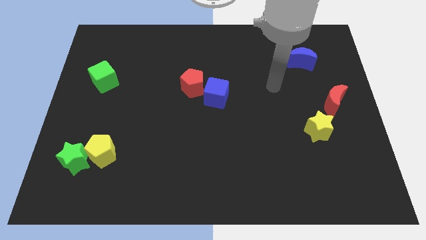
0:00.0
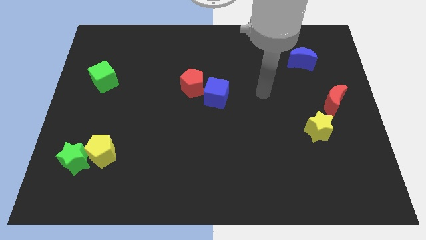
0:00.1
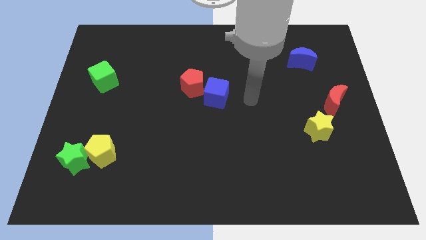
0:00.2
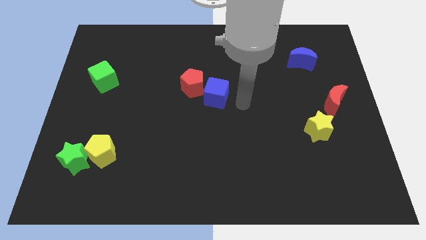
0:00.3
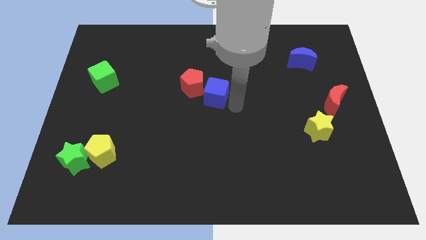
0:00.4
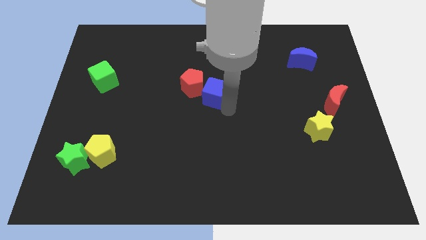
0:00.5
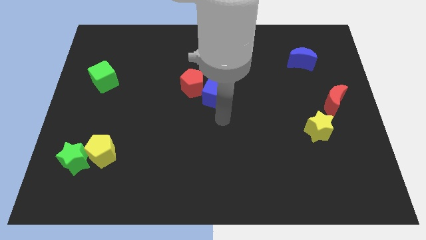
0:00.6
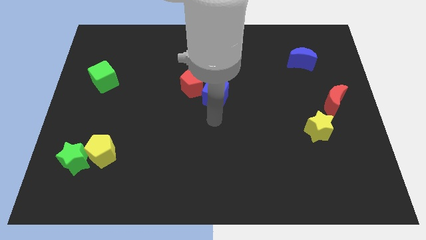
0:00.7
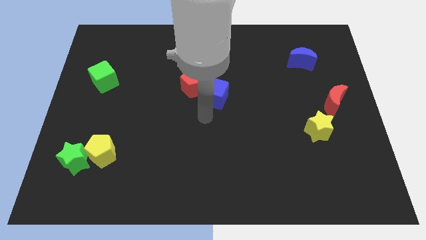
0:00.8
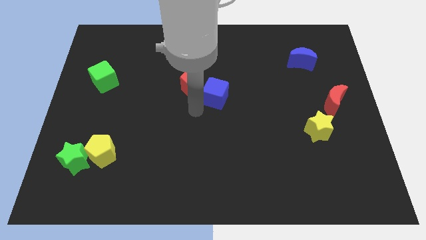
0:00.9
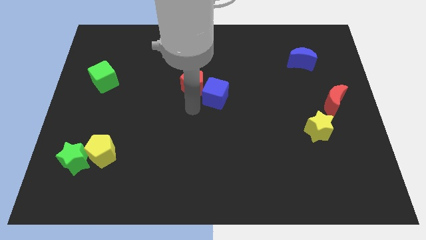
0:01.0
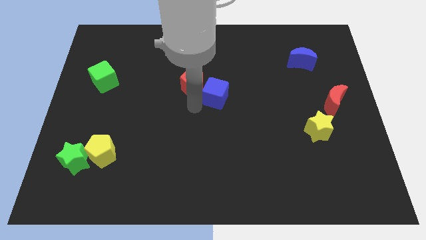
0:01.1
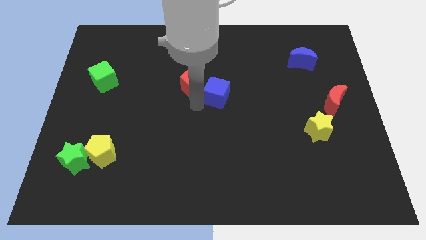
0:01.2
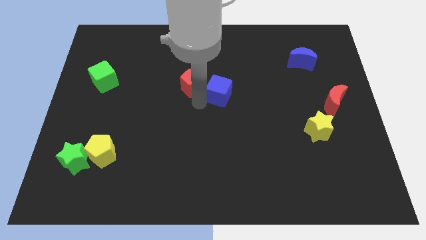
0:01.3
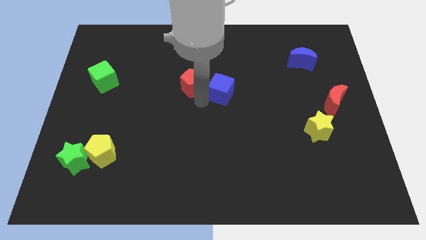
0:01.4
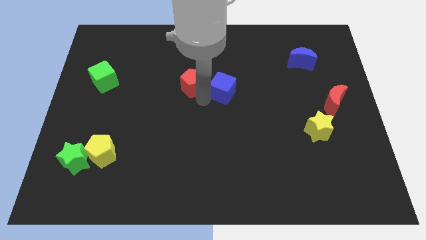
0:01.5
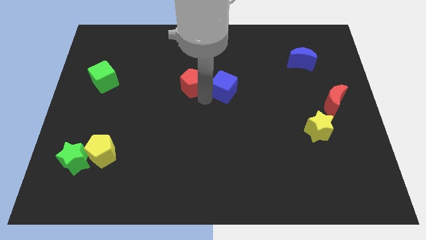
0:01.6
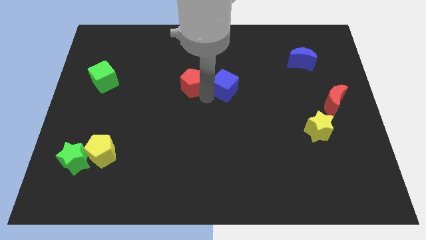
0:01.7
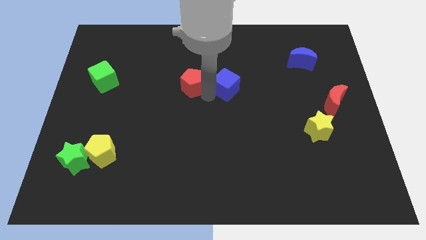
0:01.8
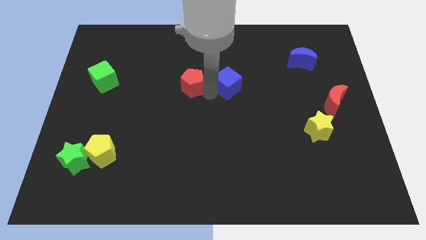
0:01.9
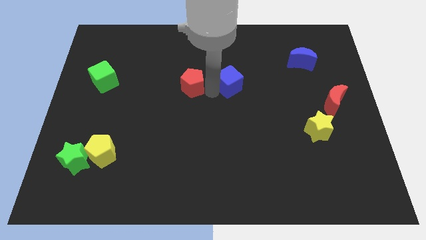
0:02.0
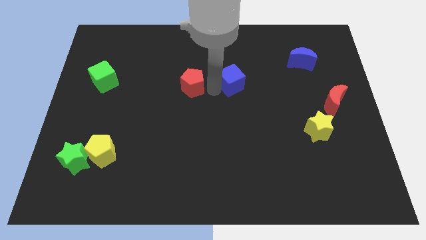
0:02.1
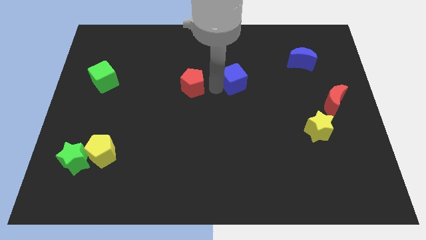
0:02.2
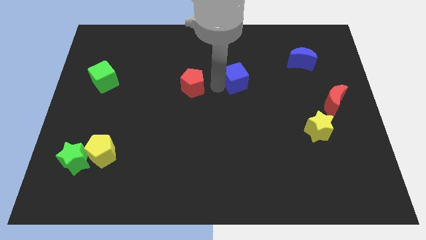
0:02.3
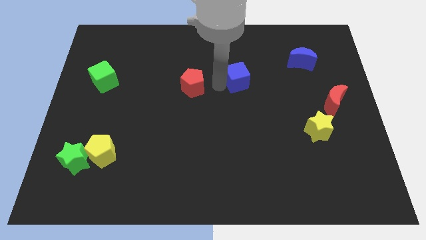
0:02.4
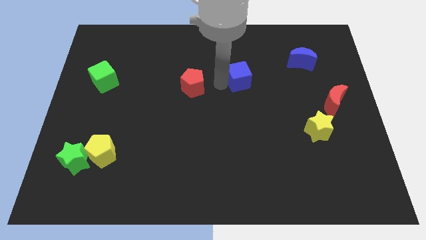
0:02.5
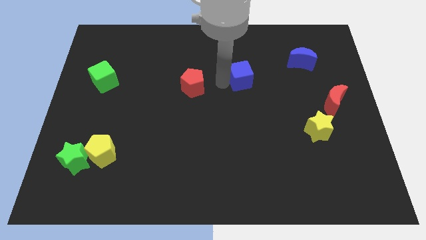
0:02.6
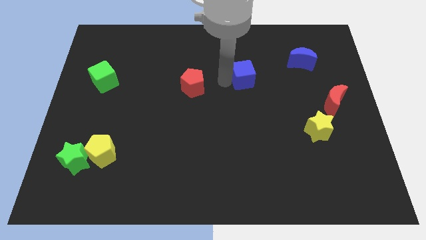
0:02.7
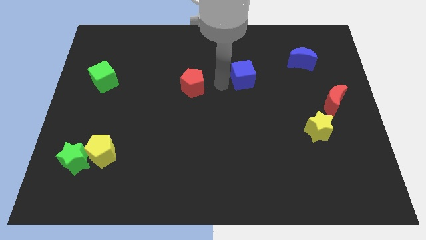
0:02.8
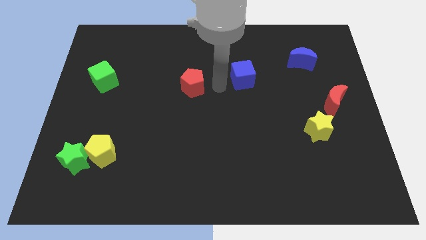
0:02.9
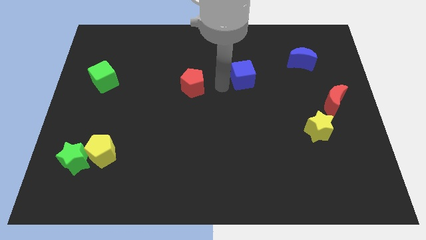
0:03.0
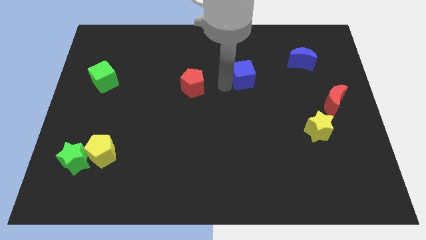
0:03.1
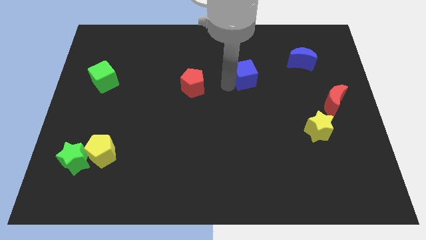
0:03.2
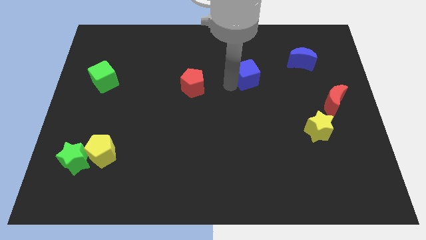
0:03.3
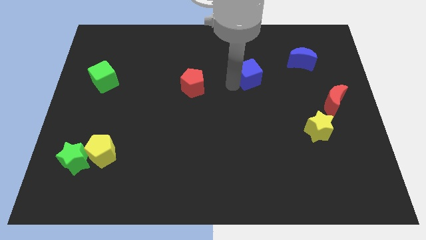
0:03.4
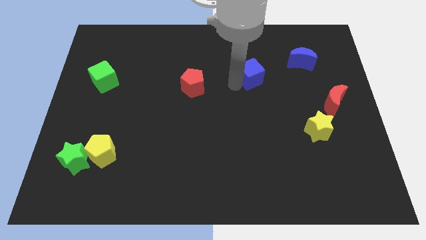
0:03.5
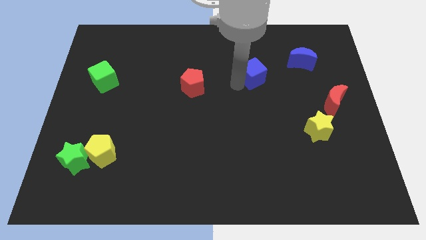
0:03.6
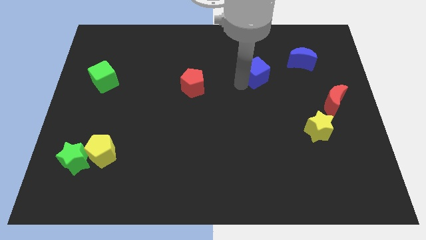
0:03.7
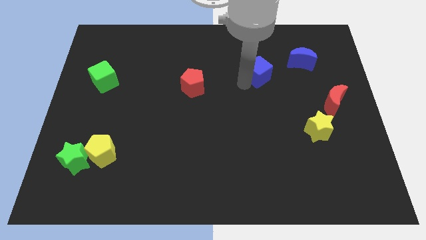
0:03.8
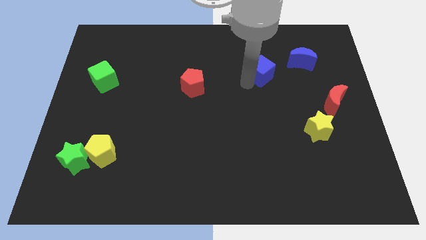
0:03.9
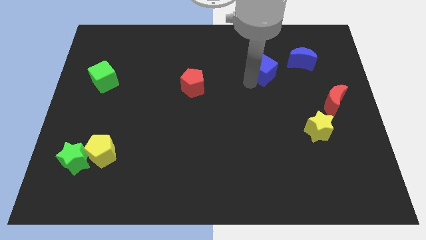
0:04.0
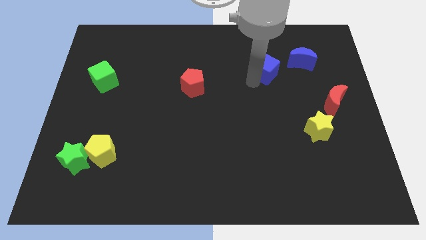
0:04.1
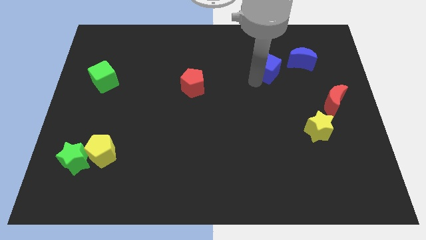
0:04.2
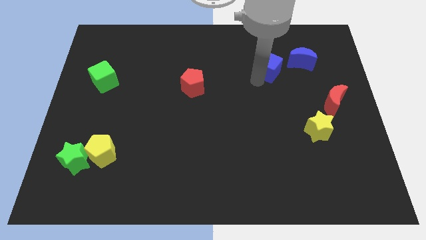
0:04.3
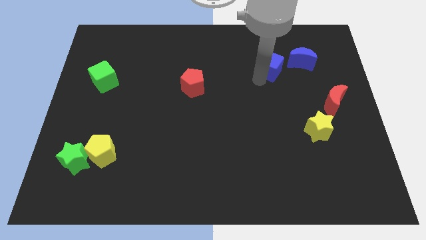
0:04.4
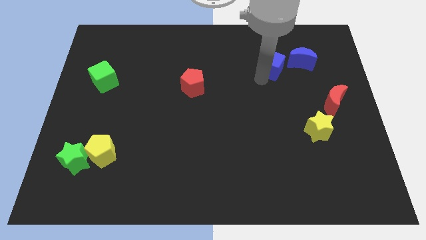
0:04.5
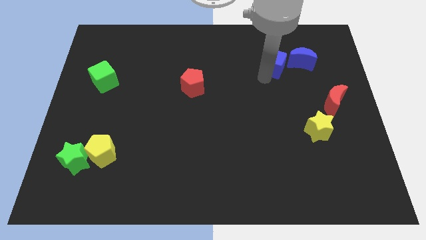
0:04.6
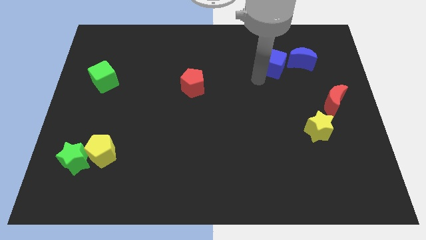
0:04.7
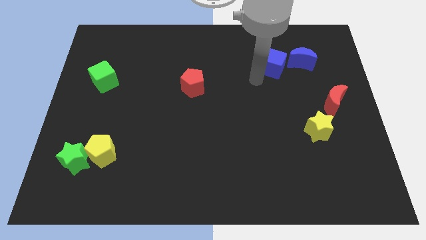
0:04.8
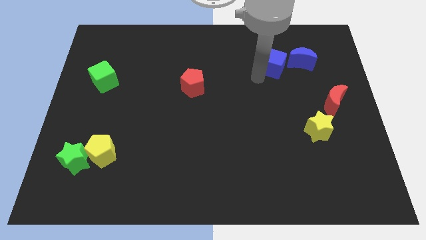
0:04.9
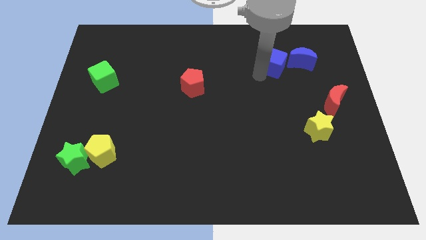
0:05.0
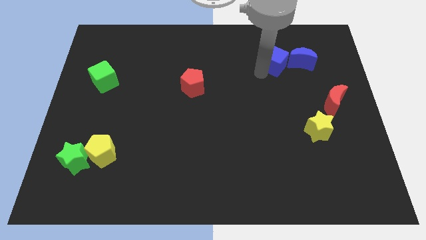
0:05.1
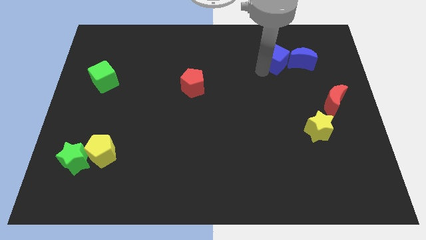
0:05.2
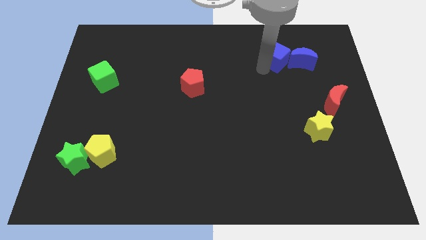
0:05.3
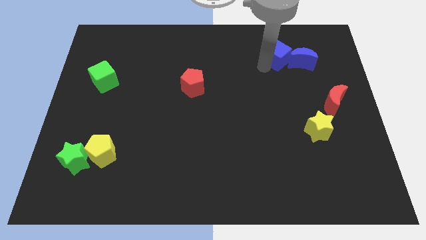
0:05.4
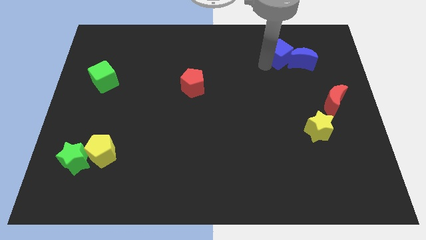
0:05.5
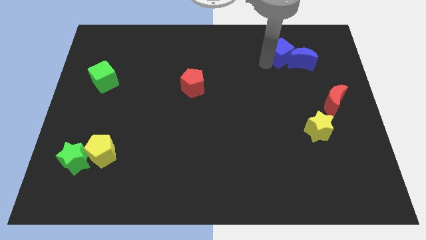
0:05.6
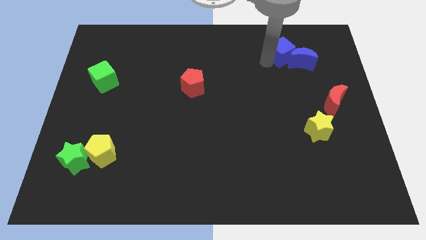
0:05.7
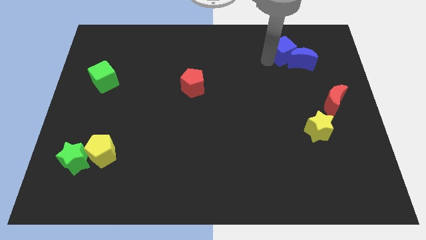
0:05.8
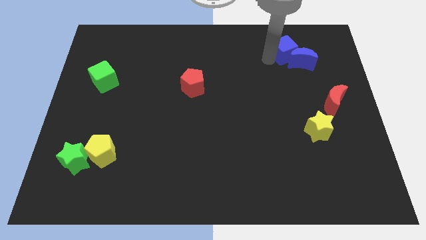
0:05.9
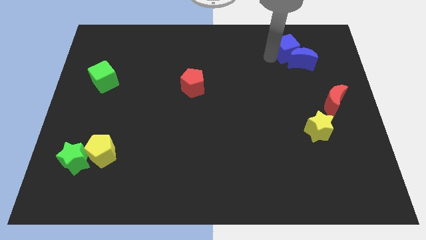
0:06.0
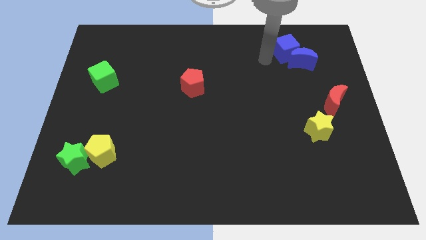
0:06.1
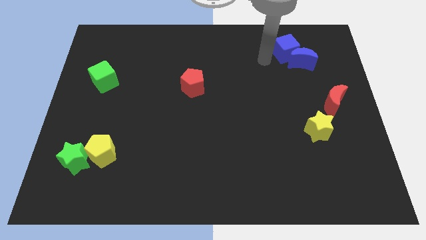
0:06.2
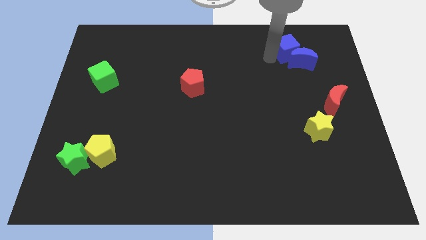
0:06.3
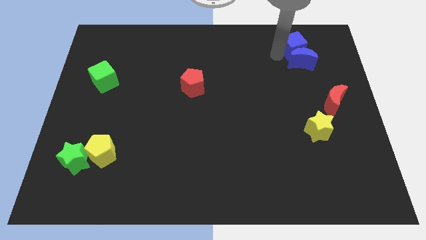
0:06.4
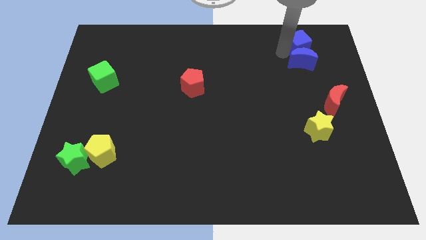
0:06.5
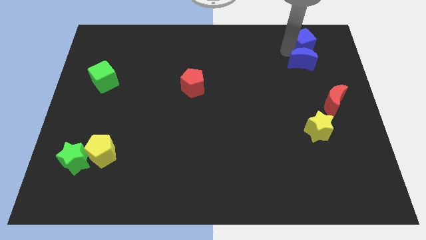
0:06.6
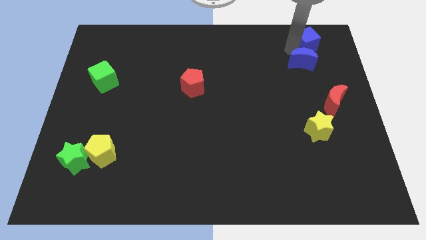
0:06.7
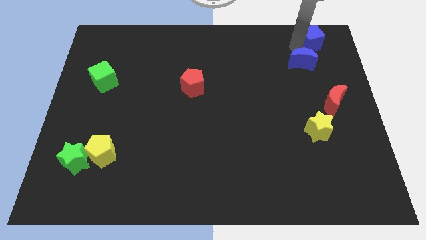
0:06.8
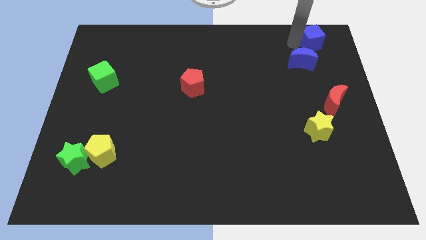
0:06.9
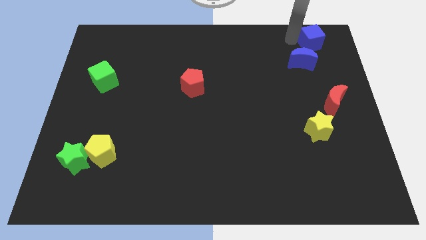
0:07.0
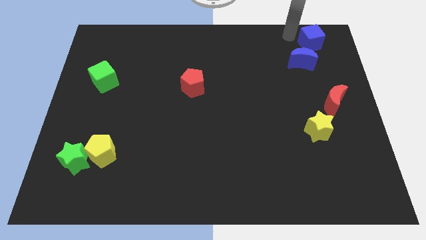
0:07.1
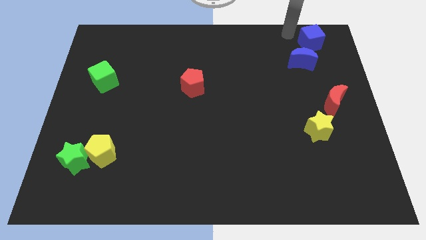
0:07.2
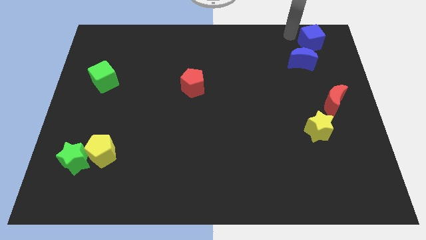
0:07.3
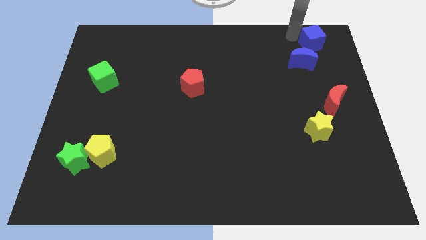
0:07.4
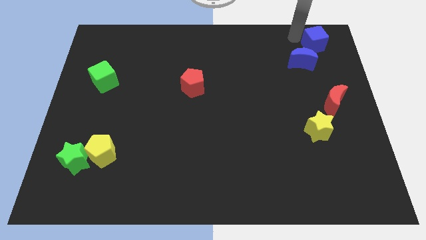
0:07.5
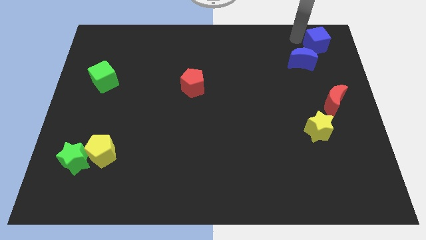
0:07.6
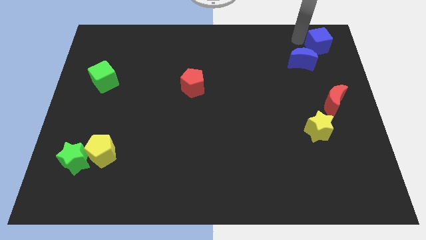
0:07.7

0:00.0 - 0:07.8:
slide the blue cube to the top right corner

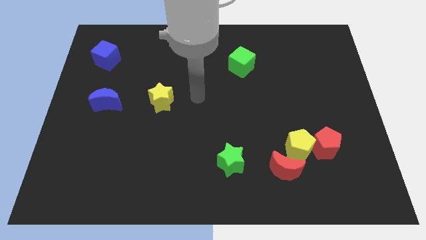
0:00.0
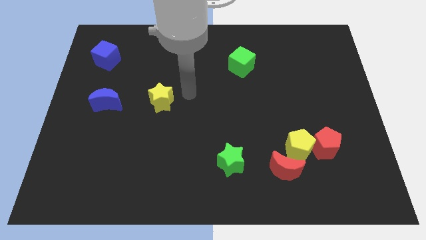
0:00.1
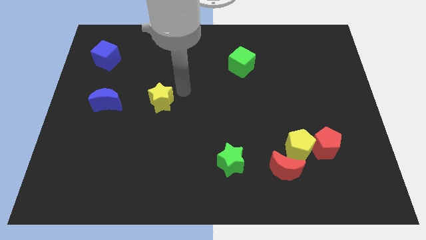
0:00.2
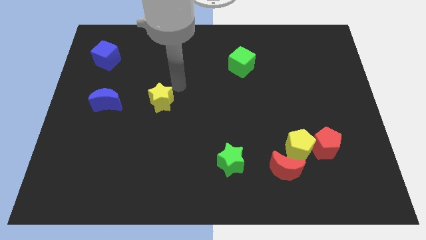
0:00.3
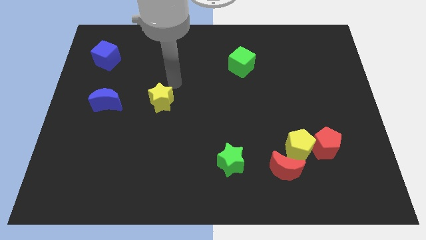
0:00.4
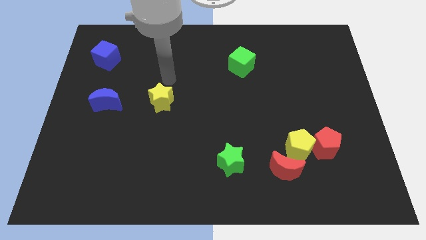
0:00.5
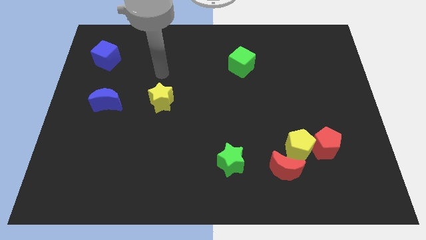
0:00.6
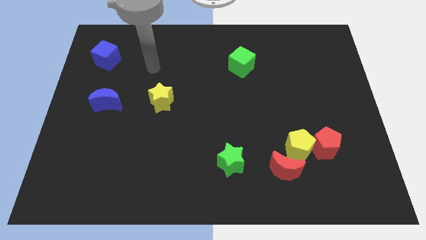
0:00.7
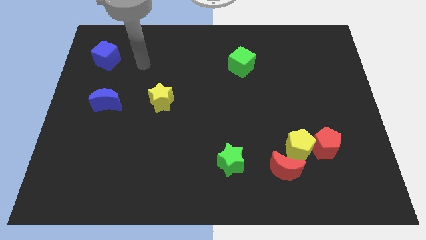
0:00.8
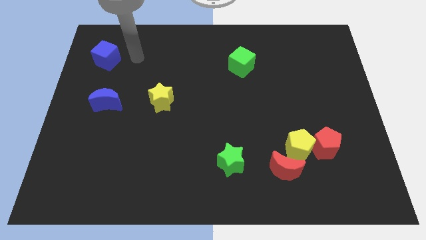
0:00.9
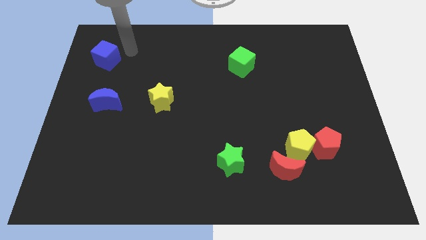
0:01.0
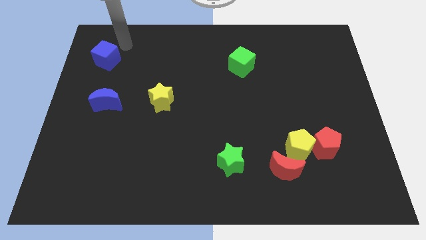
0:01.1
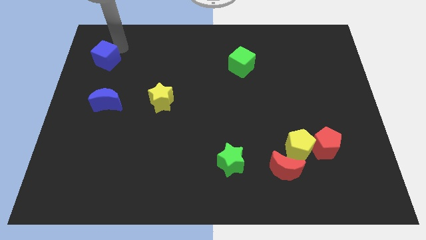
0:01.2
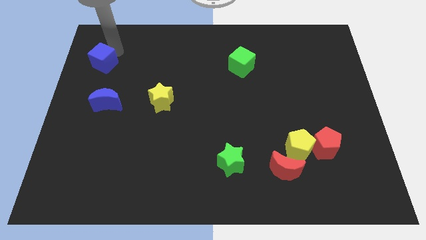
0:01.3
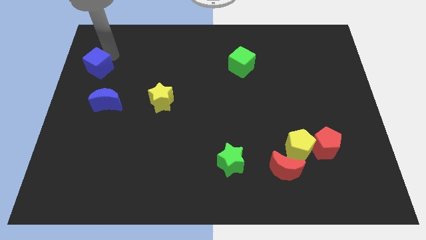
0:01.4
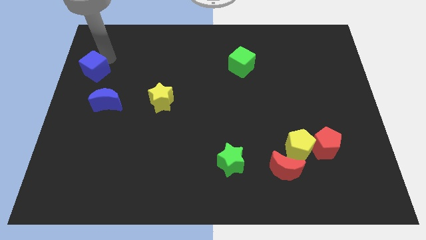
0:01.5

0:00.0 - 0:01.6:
slide the blue cube to the center left
